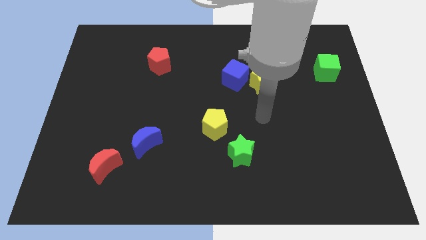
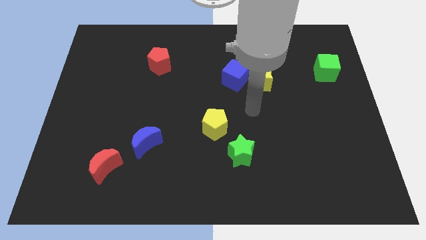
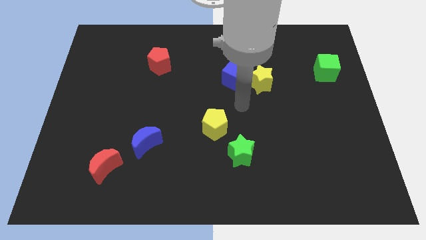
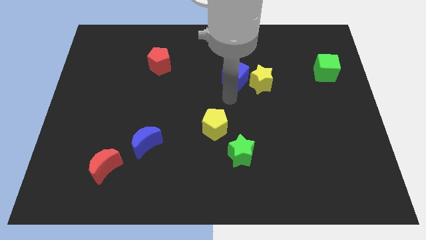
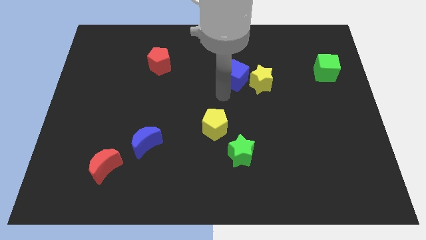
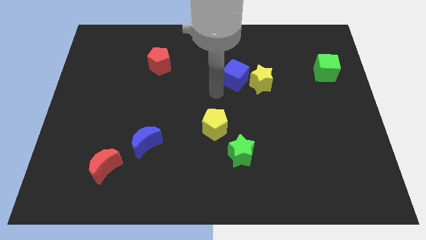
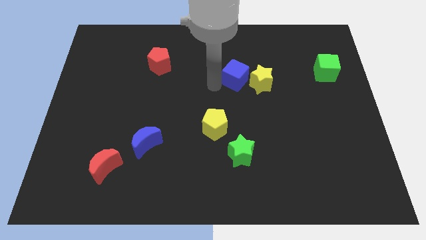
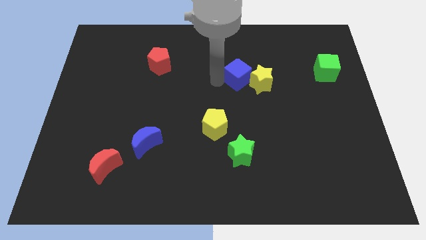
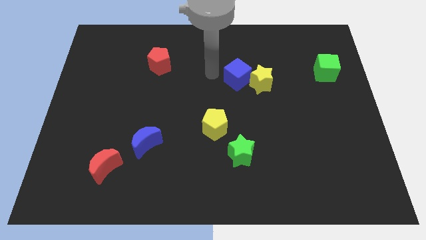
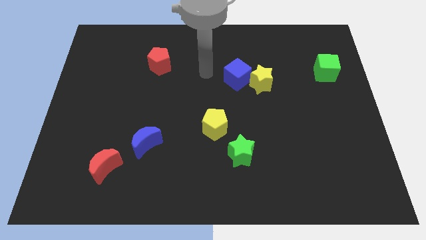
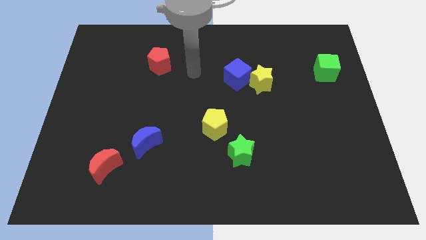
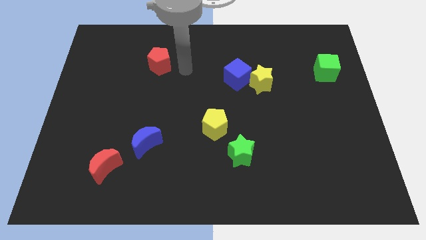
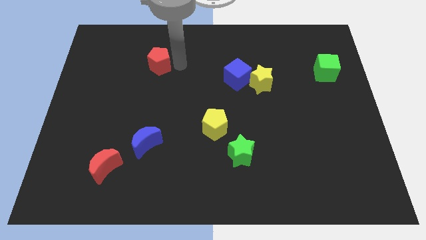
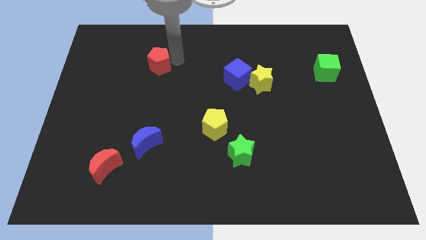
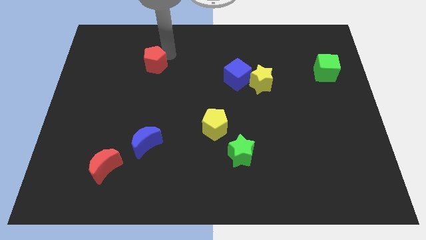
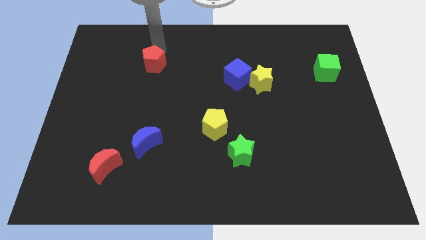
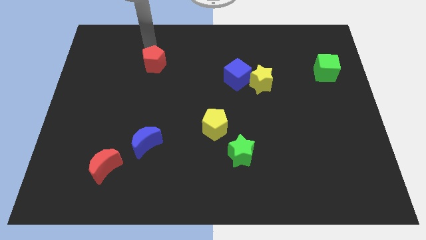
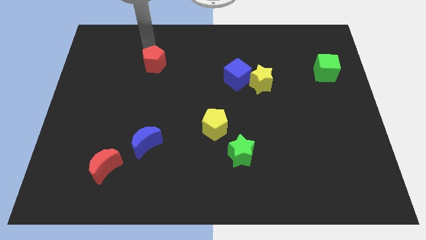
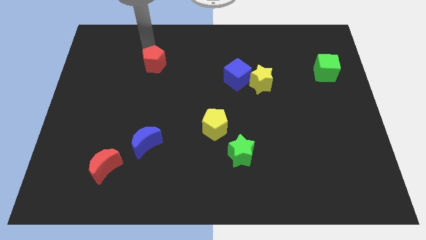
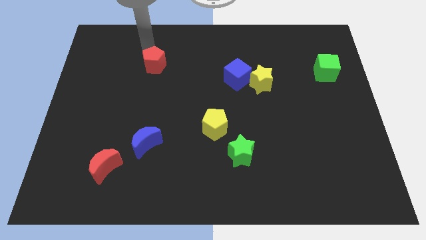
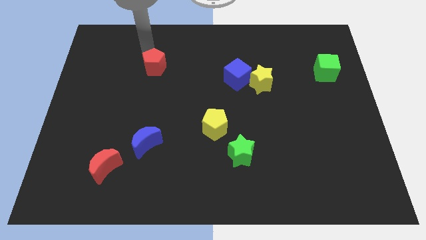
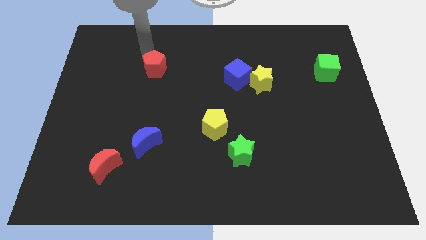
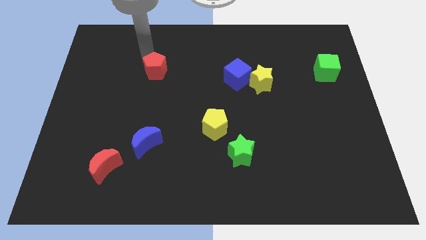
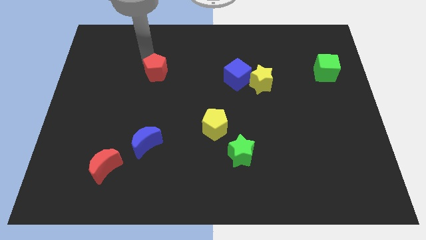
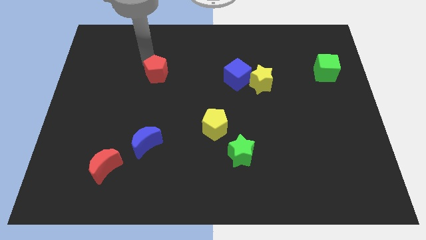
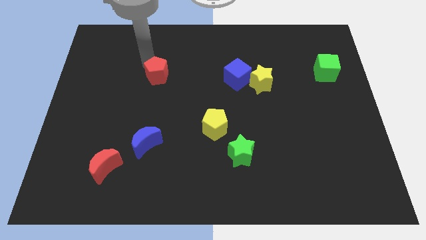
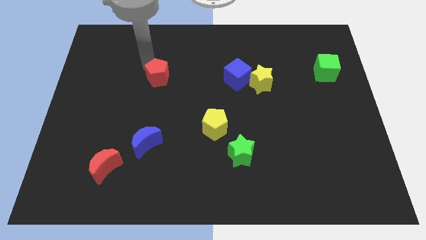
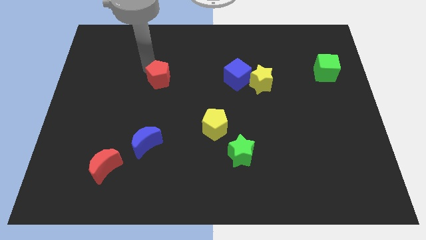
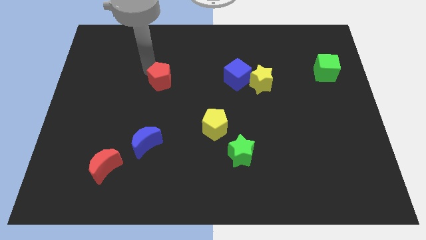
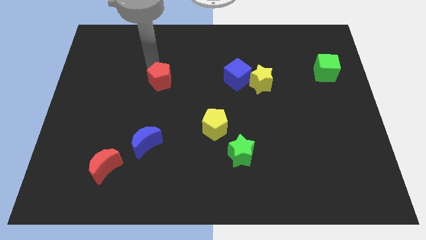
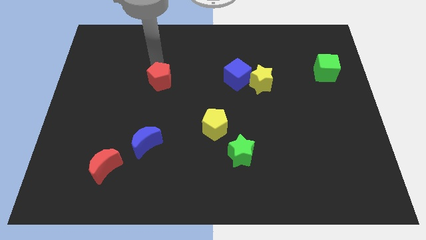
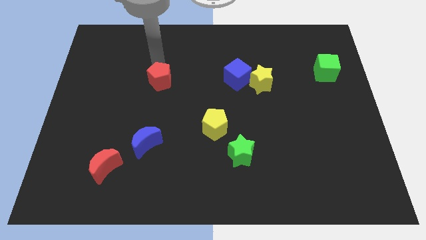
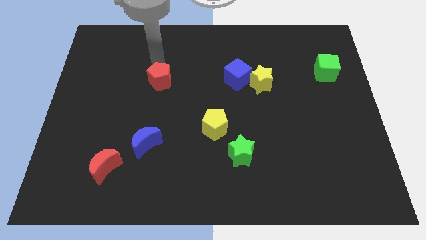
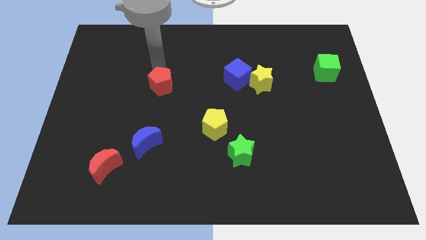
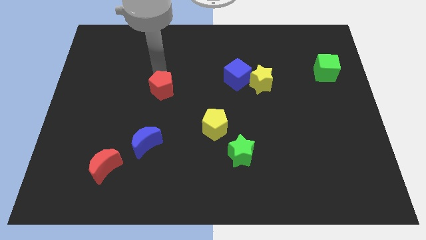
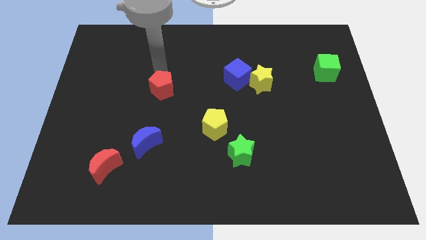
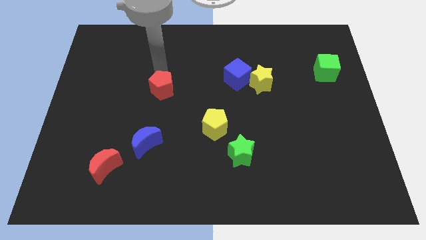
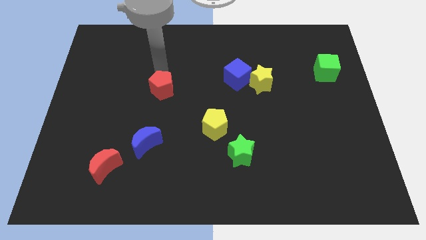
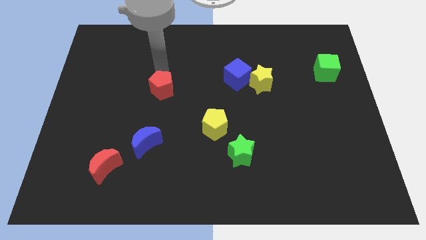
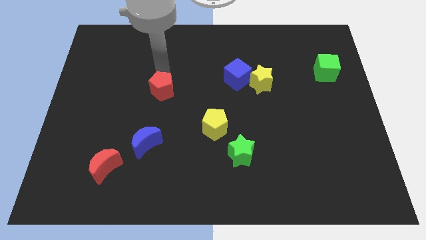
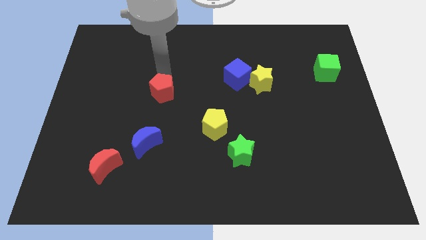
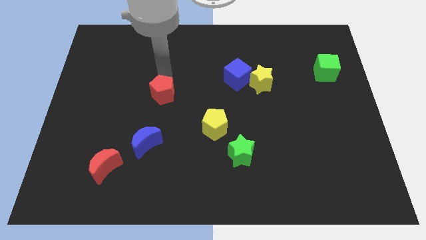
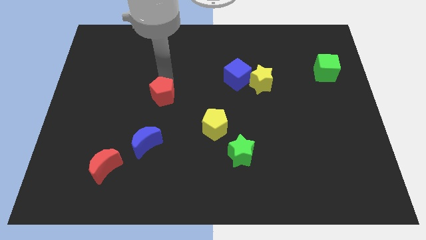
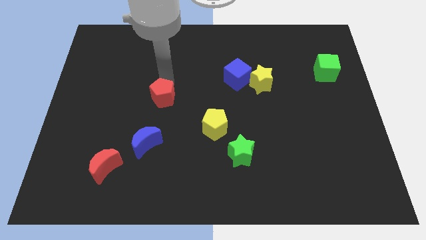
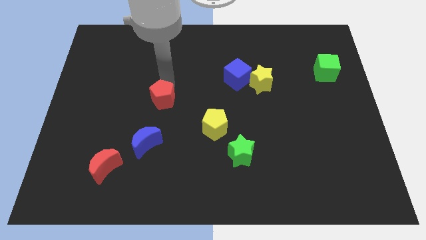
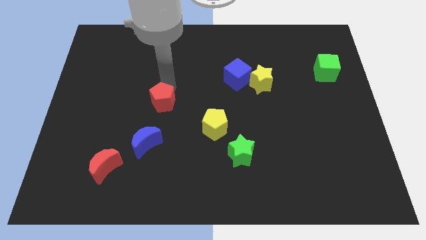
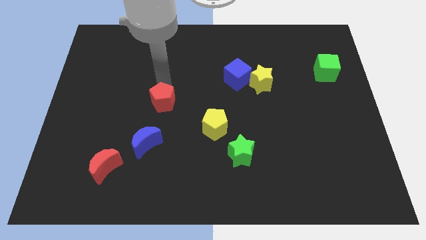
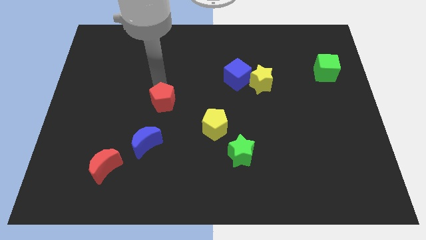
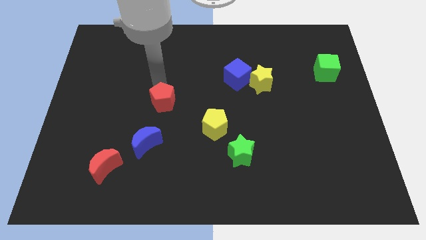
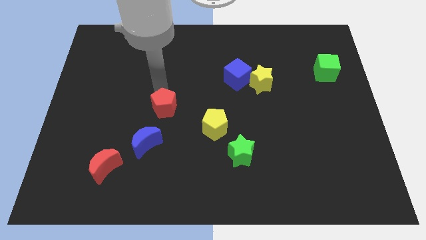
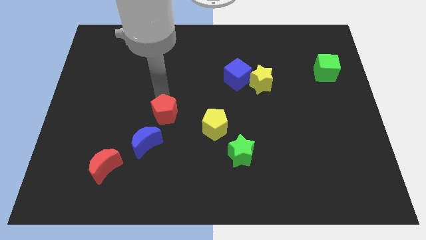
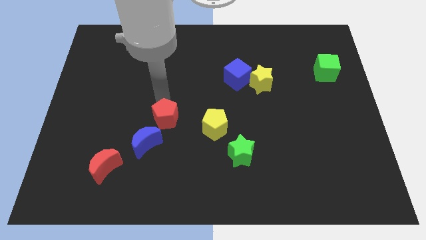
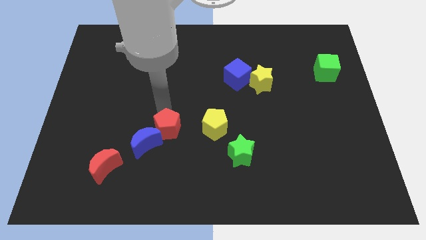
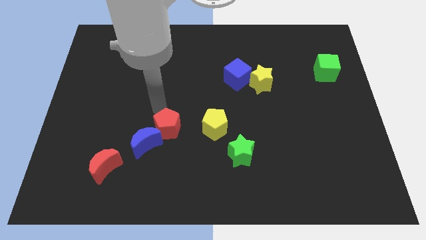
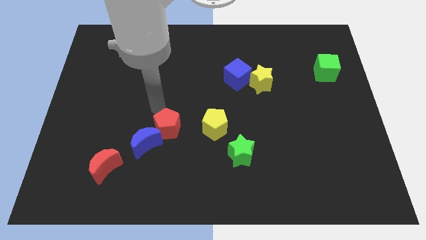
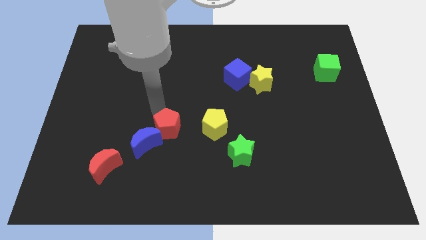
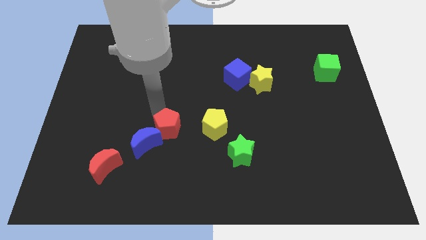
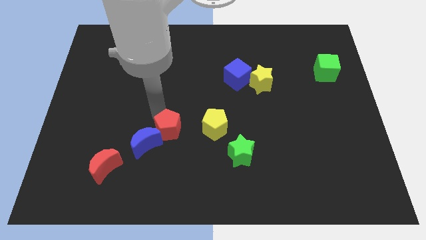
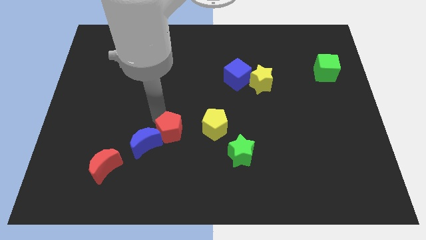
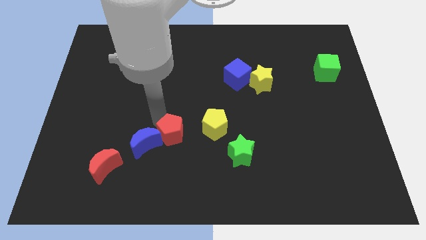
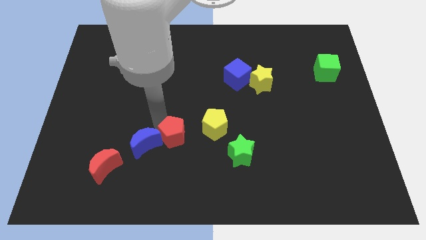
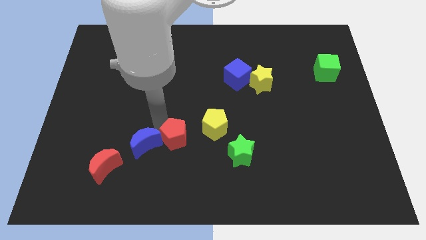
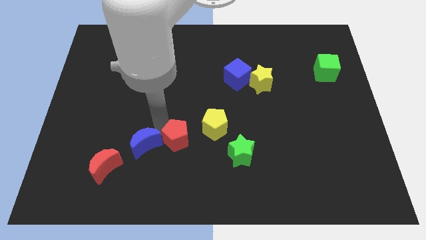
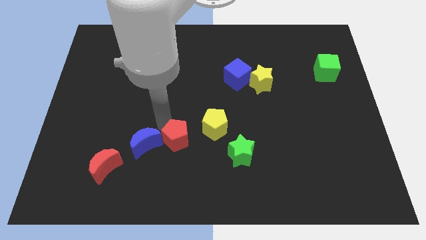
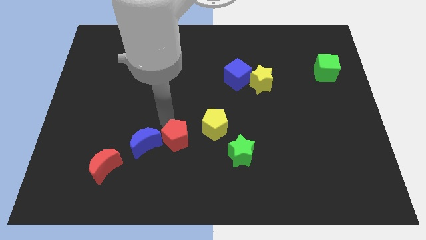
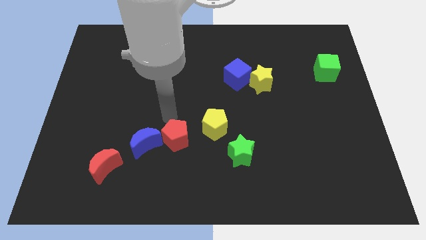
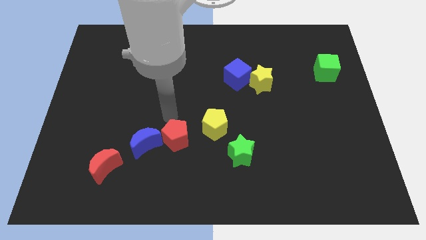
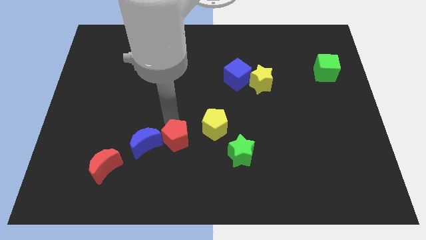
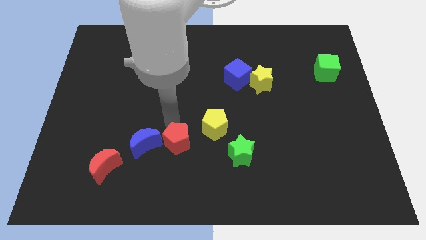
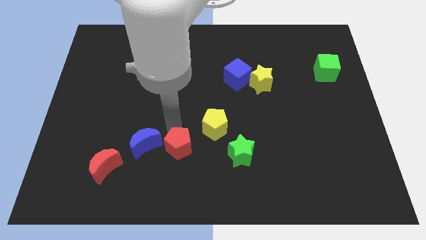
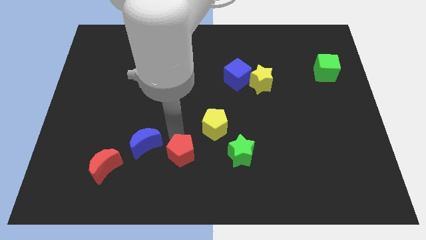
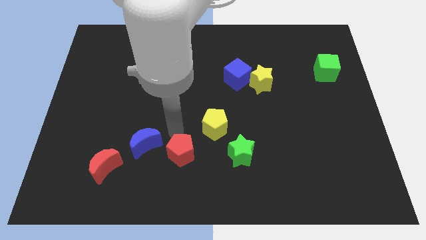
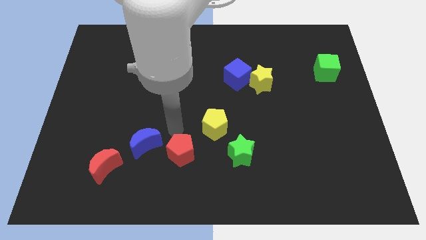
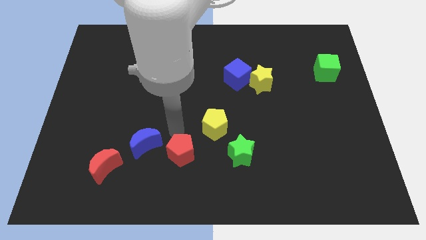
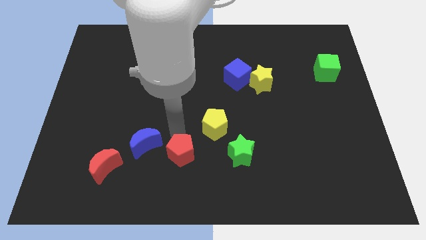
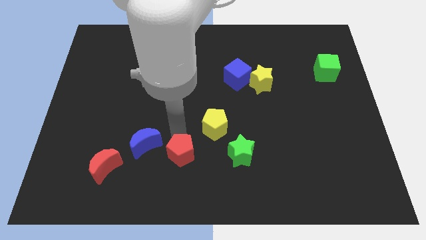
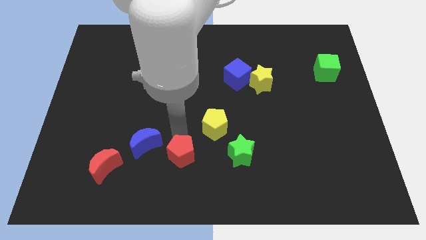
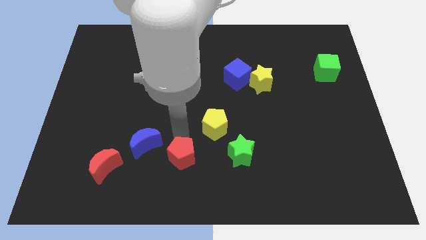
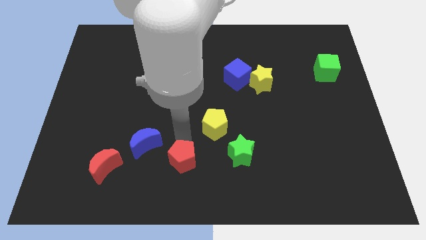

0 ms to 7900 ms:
slide the red pentagon to the bottom
